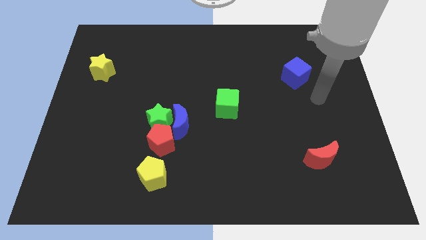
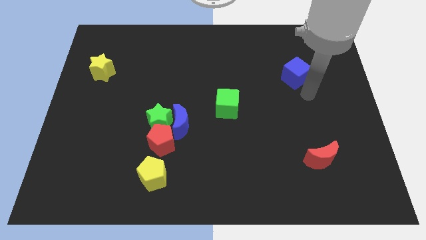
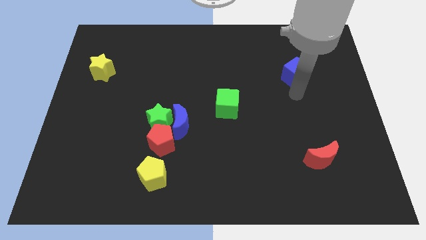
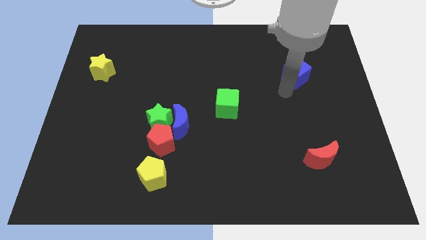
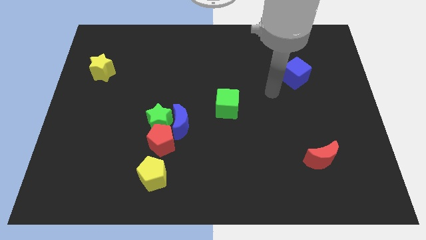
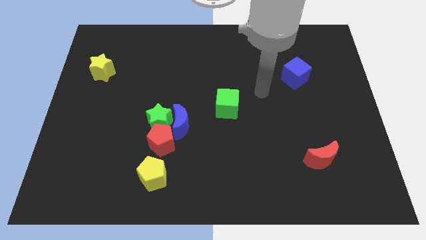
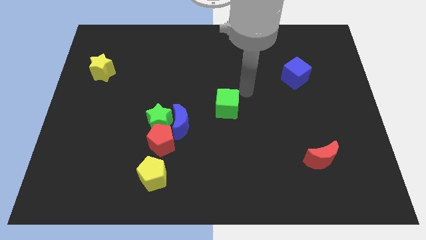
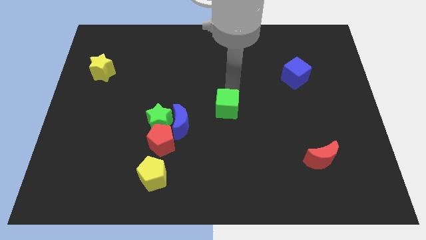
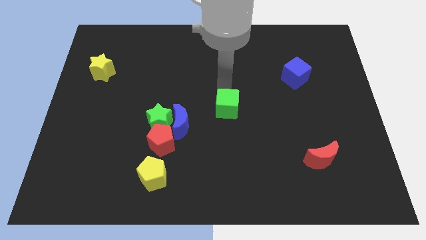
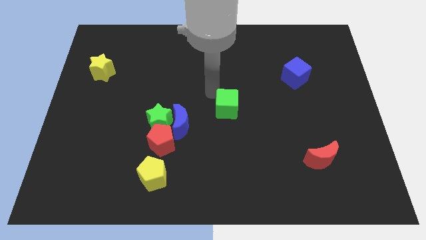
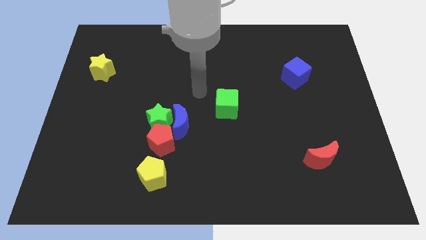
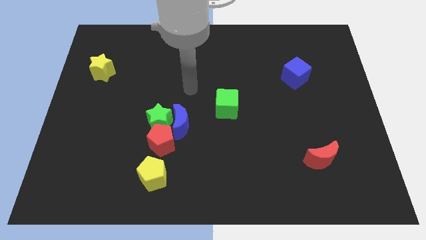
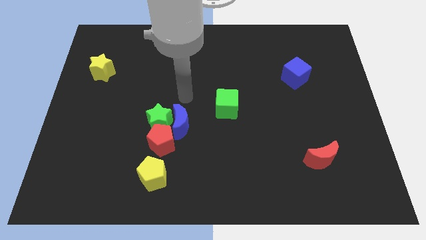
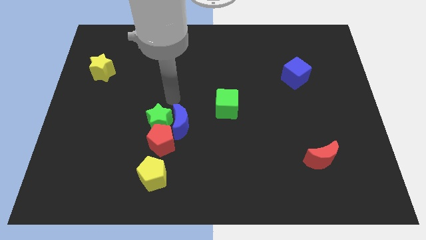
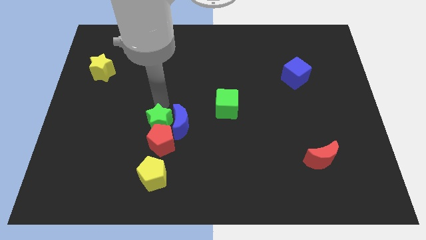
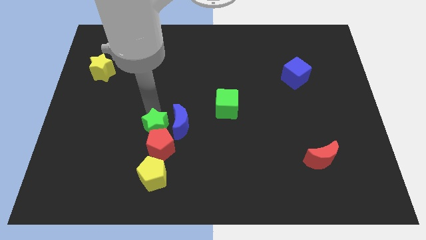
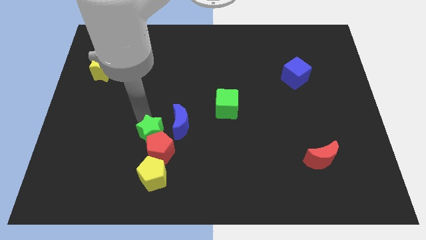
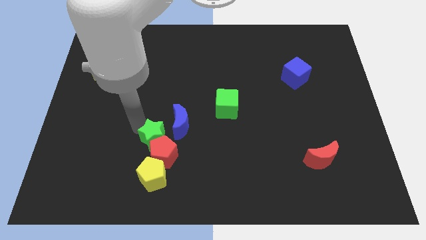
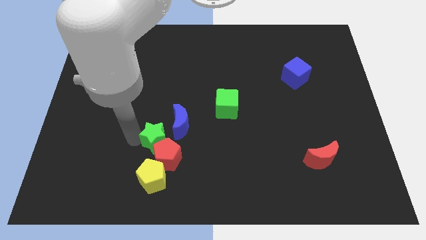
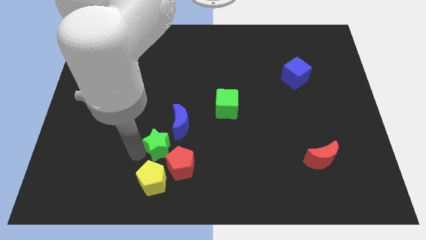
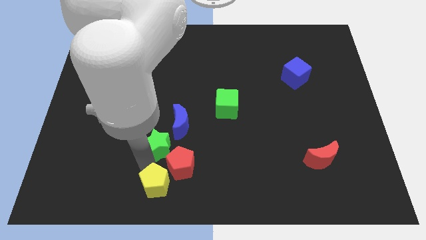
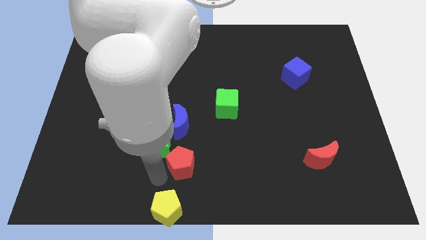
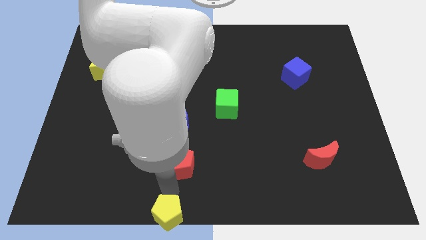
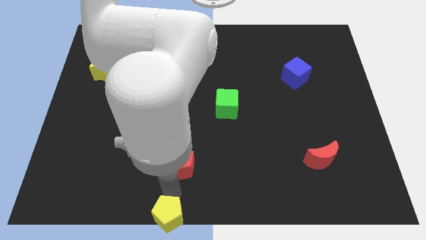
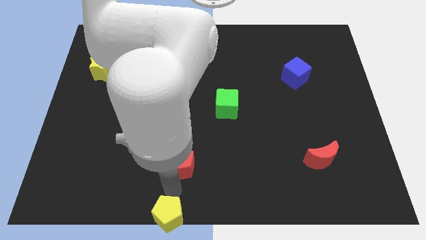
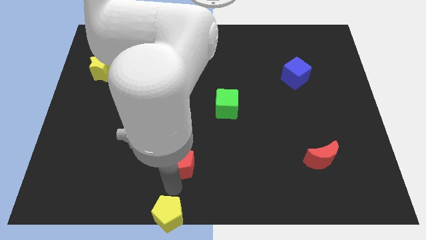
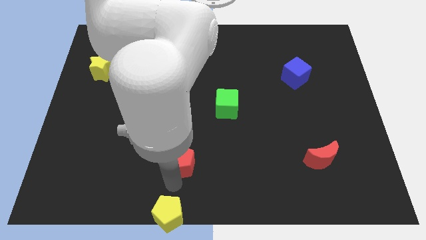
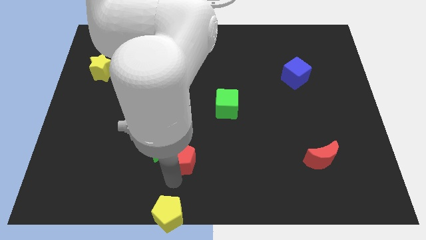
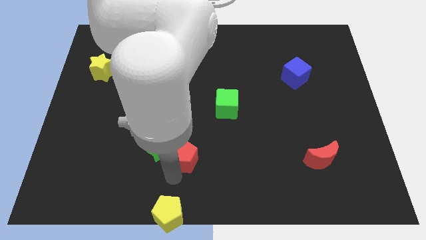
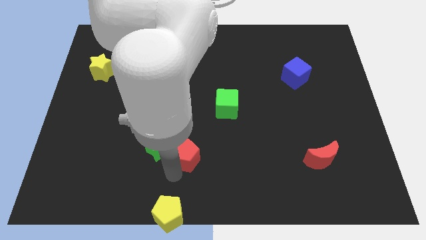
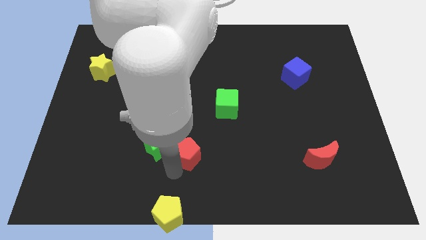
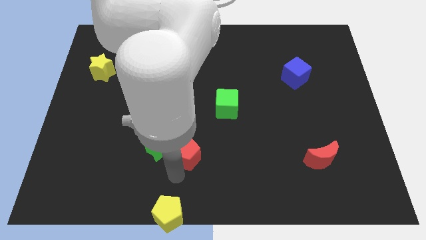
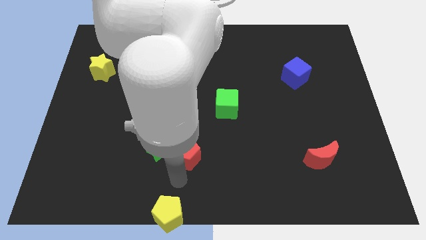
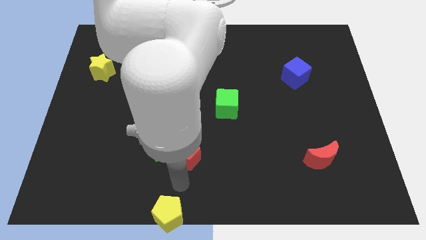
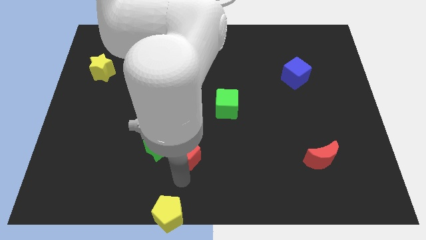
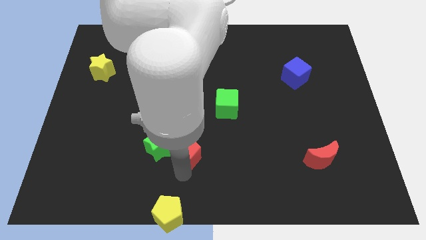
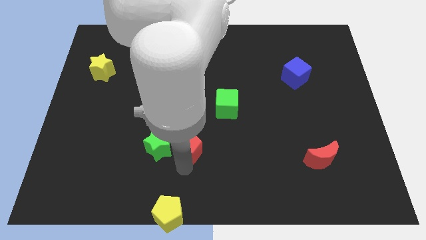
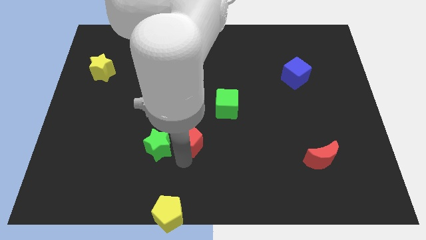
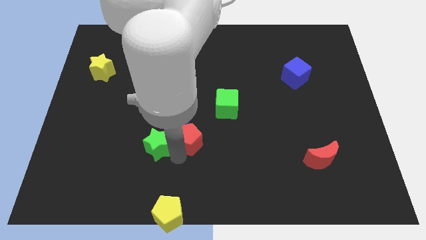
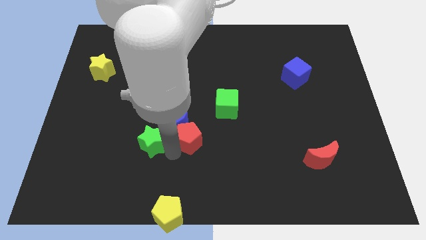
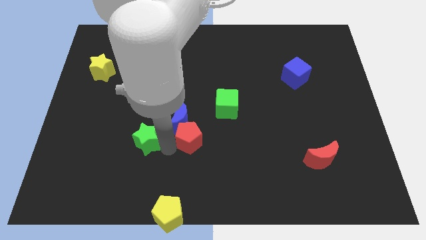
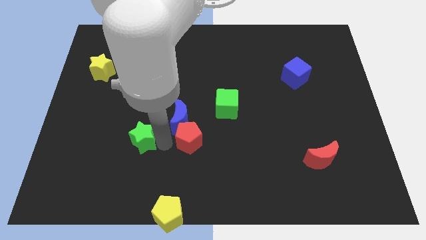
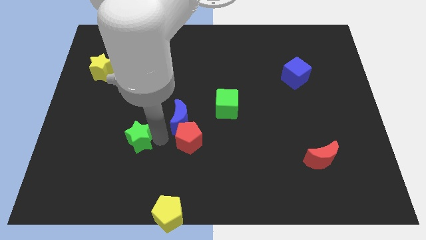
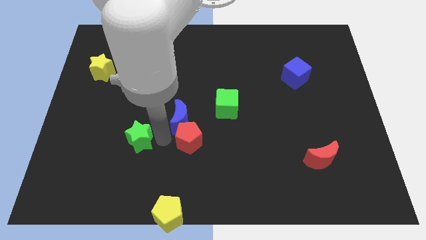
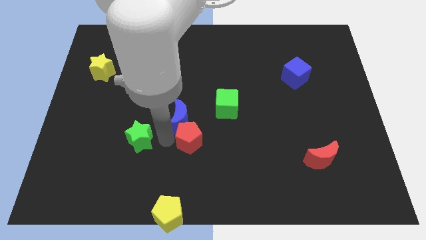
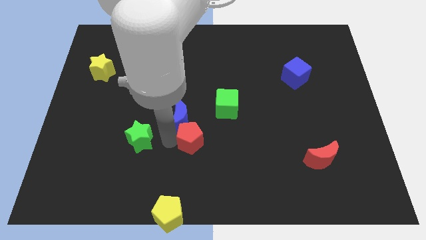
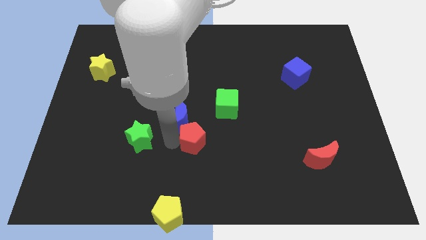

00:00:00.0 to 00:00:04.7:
slightly push the red pentagon right

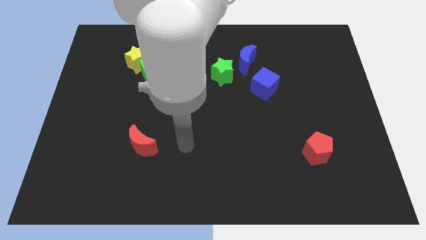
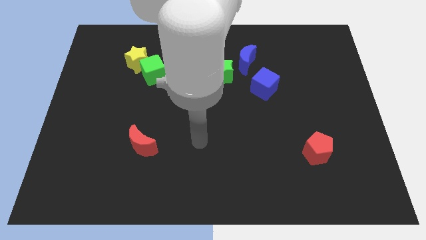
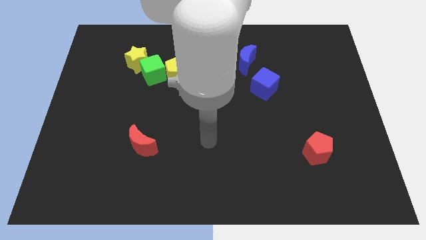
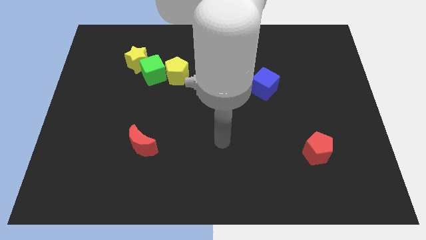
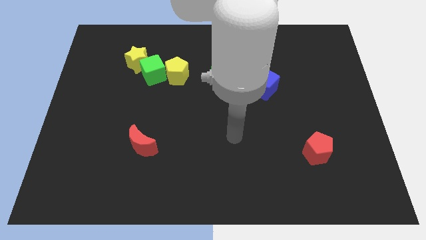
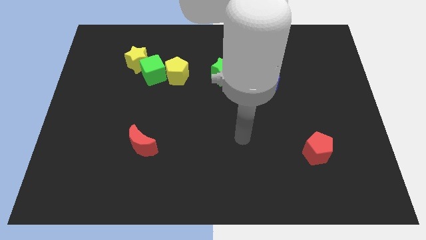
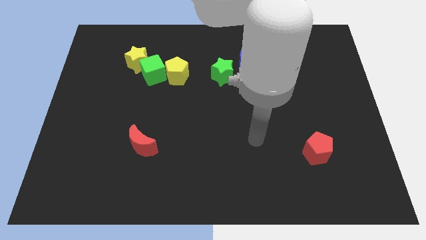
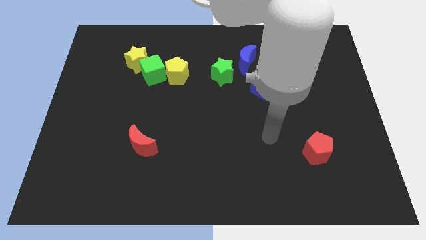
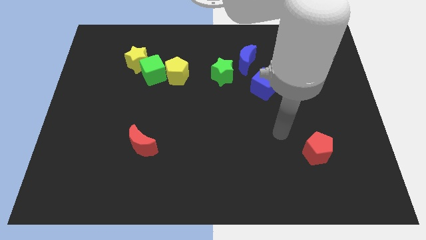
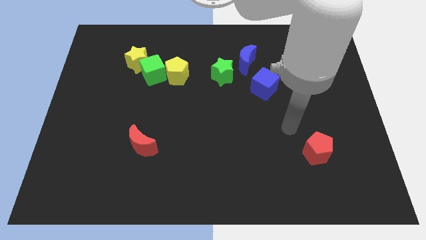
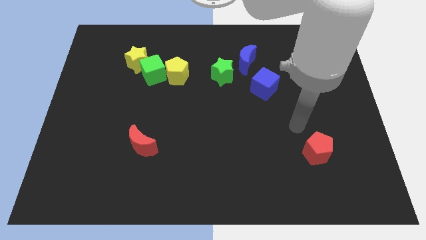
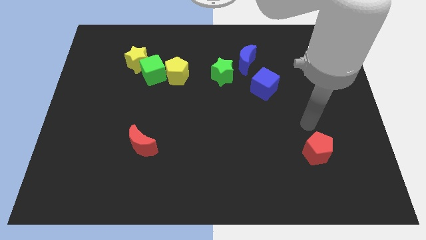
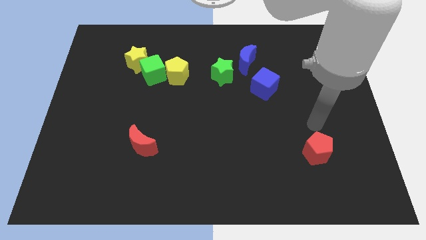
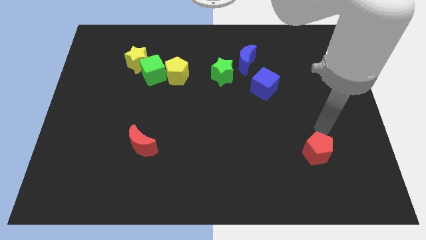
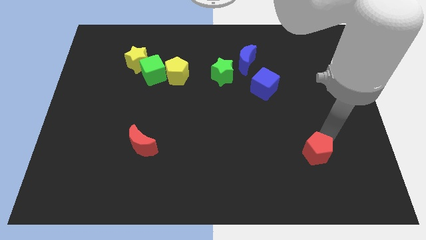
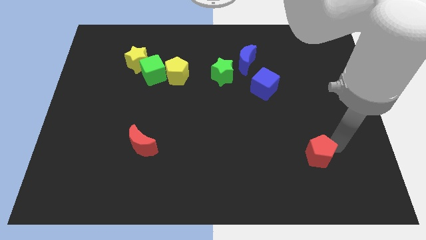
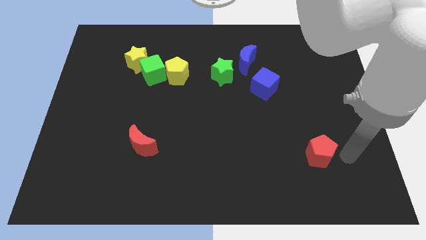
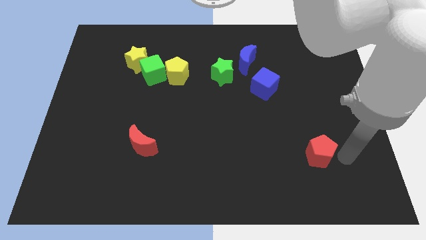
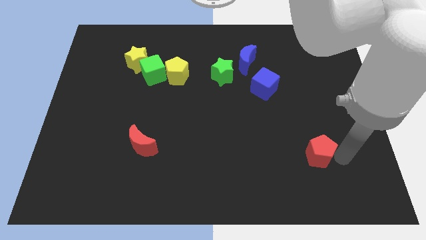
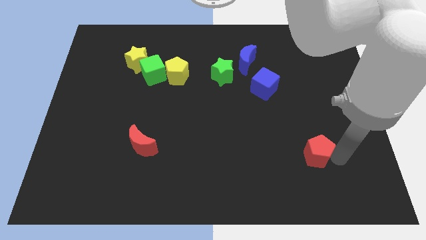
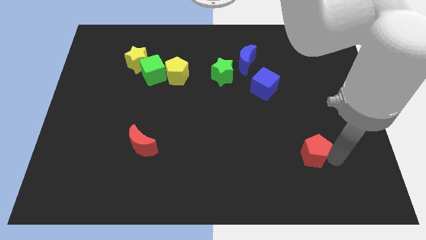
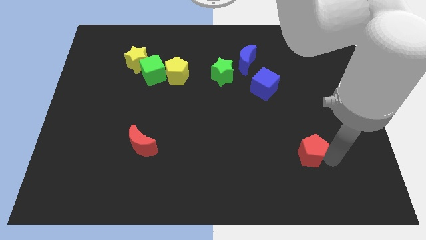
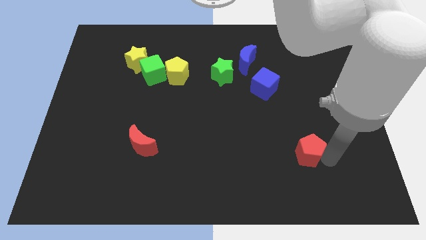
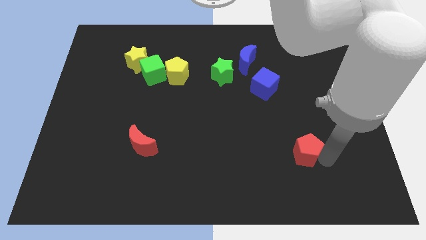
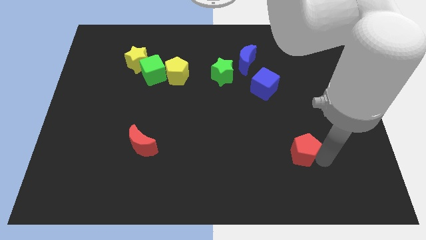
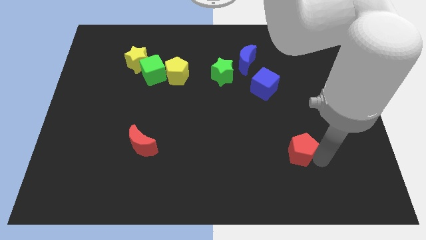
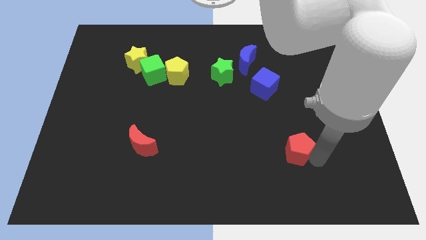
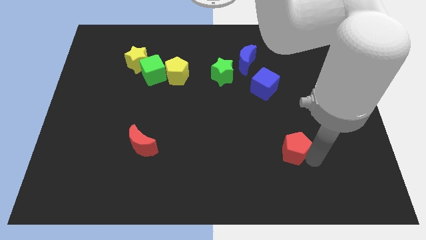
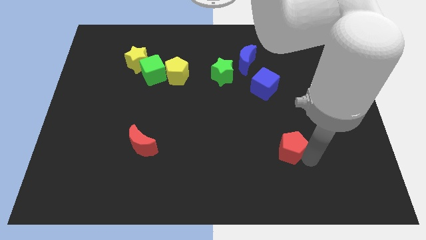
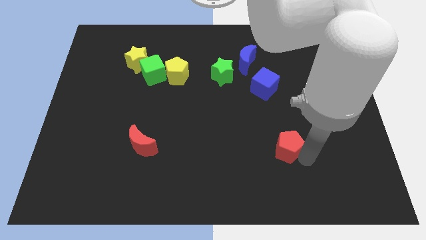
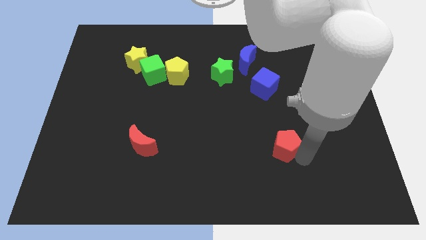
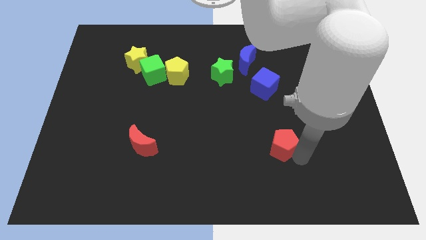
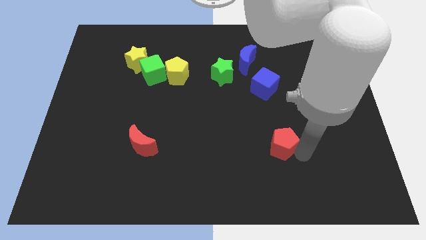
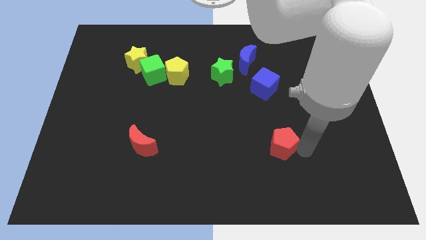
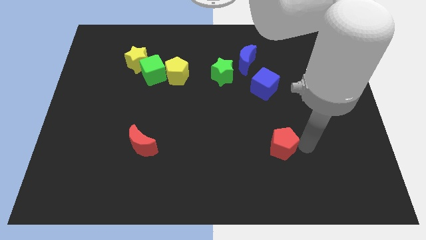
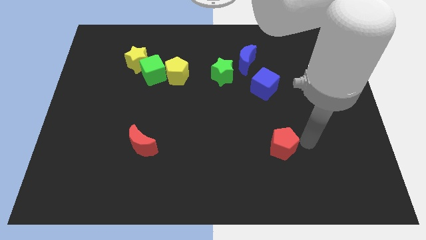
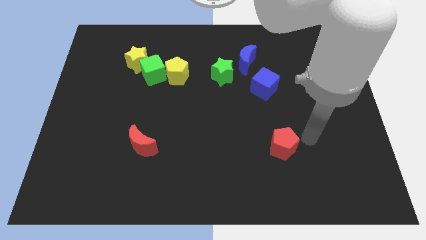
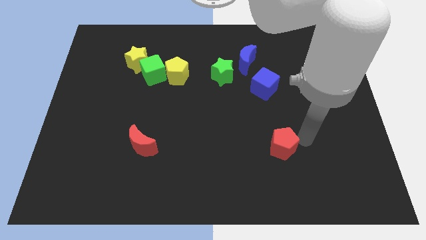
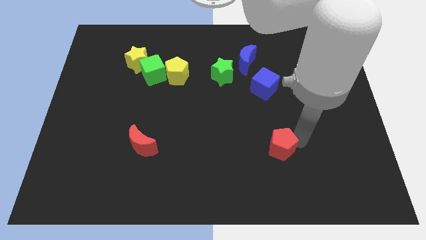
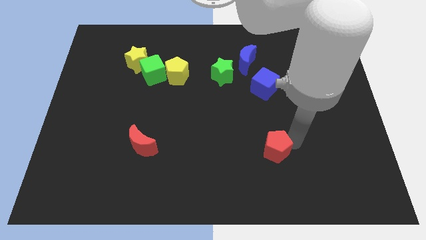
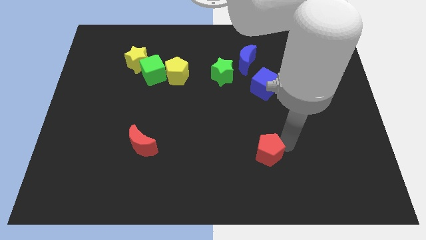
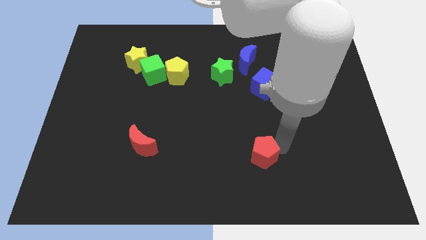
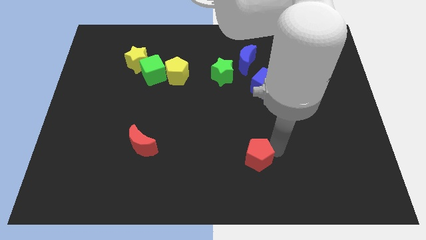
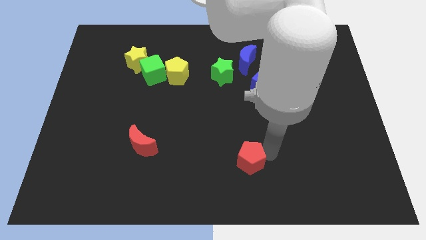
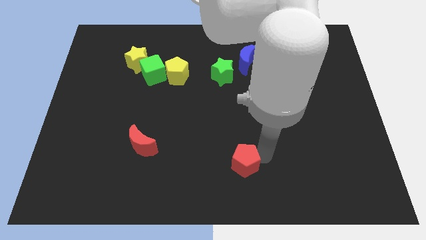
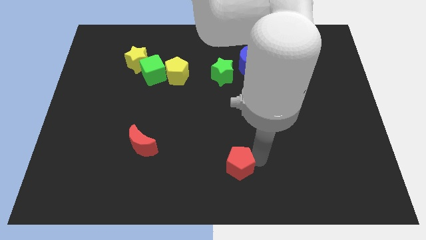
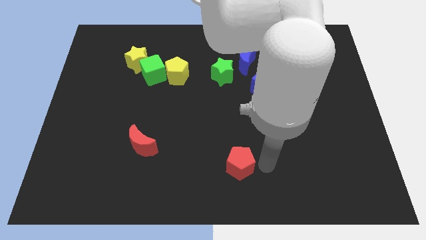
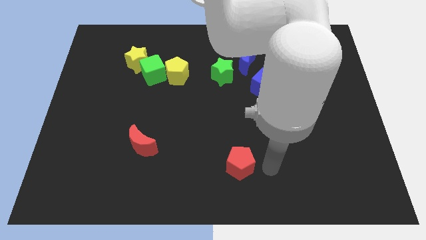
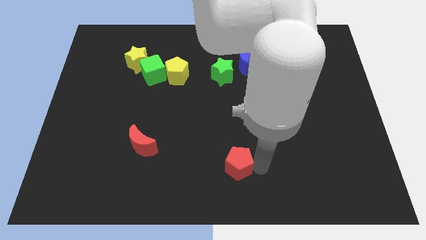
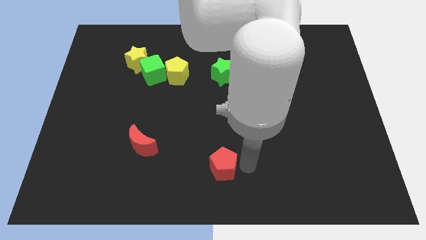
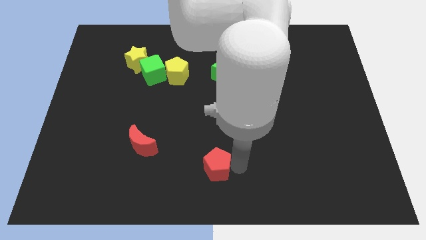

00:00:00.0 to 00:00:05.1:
push the red pentagon to the left
